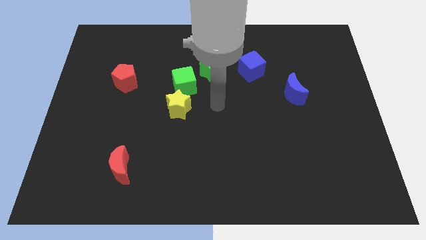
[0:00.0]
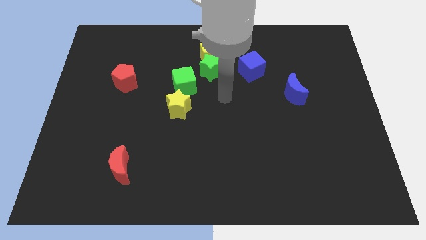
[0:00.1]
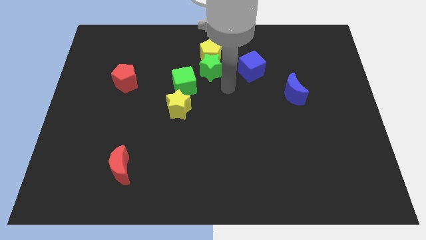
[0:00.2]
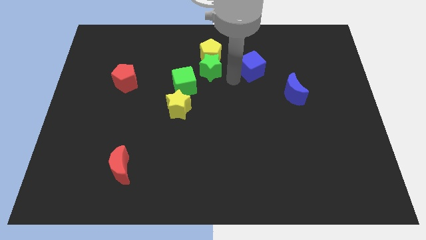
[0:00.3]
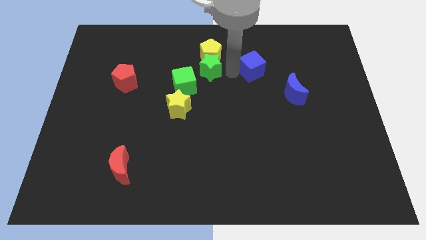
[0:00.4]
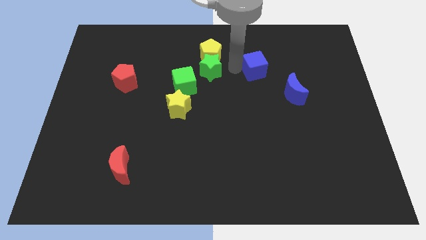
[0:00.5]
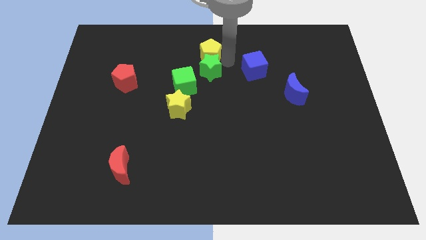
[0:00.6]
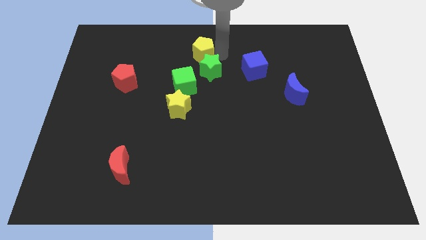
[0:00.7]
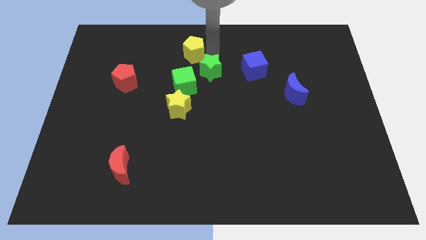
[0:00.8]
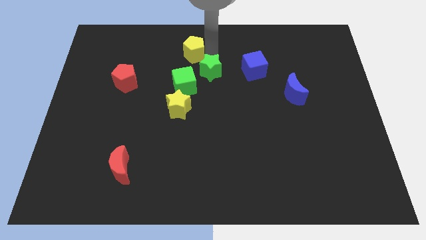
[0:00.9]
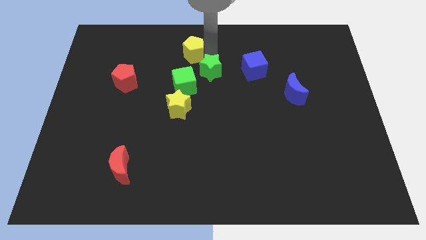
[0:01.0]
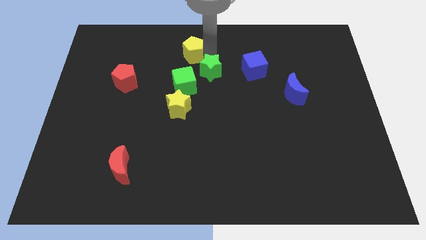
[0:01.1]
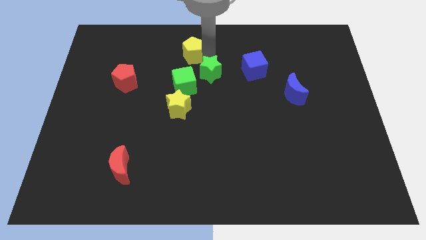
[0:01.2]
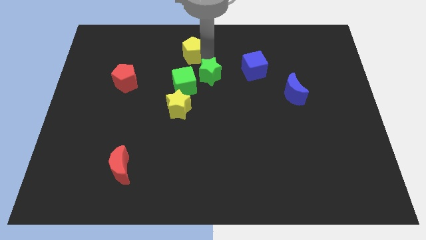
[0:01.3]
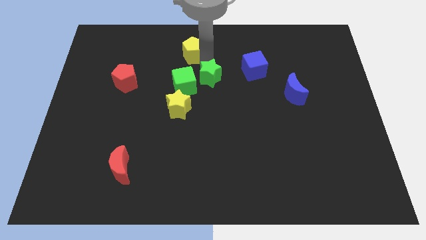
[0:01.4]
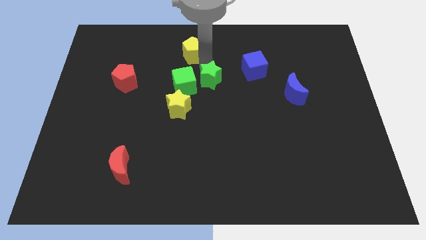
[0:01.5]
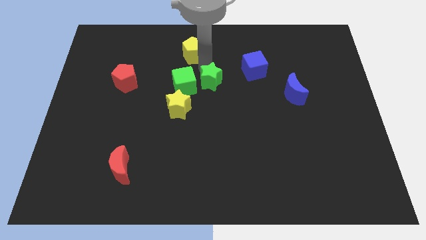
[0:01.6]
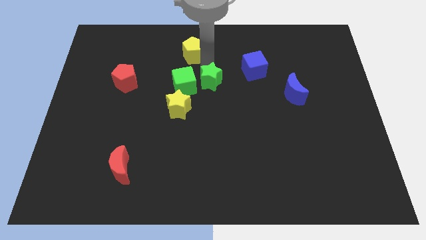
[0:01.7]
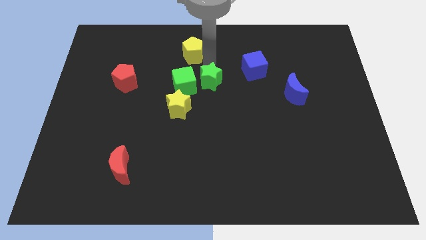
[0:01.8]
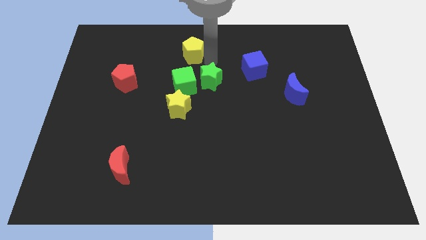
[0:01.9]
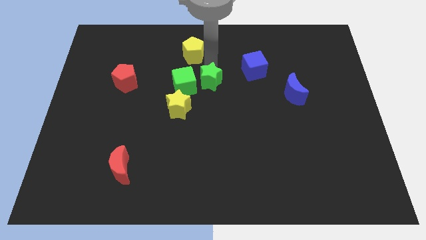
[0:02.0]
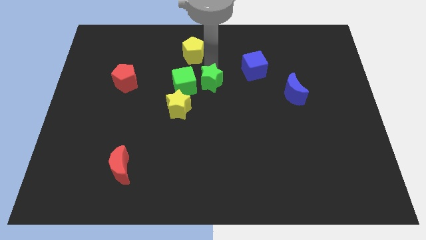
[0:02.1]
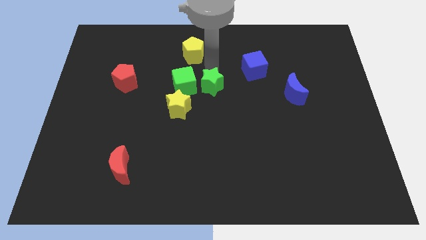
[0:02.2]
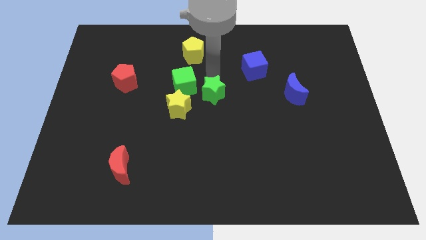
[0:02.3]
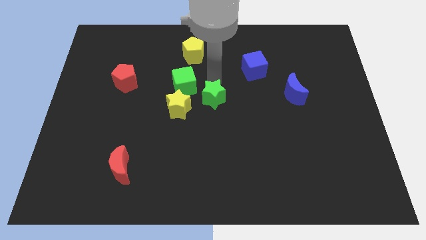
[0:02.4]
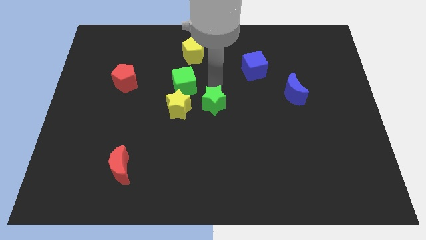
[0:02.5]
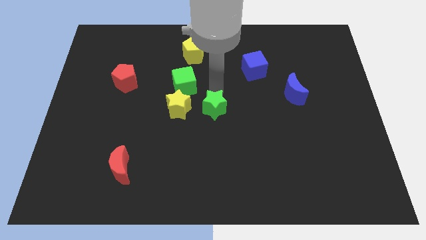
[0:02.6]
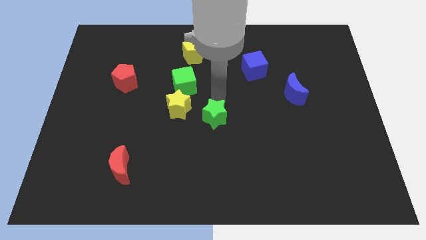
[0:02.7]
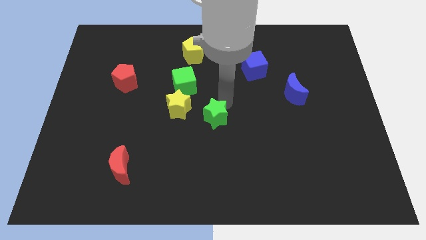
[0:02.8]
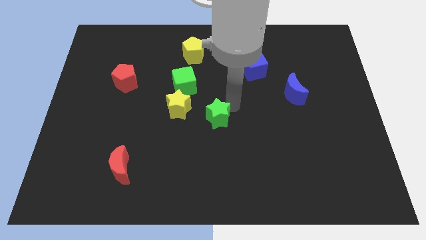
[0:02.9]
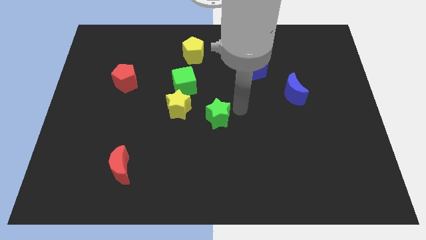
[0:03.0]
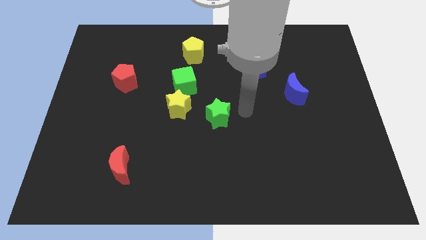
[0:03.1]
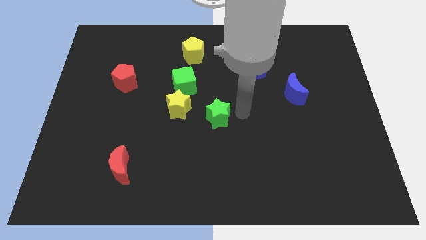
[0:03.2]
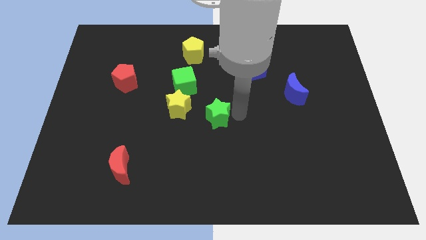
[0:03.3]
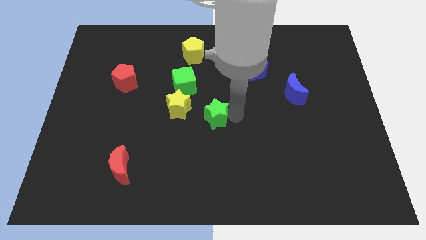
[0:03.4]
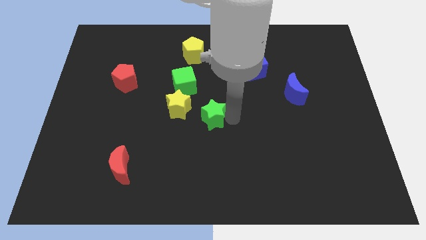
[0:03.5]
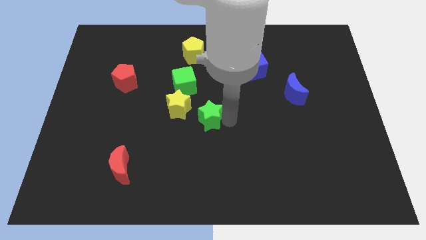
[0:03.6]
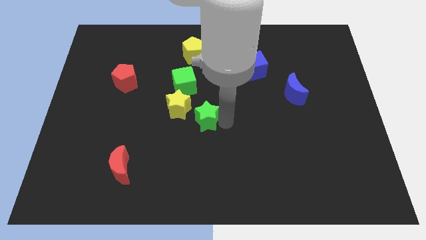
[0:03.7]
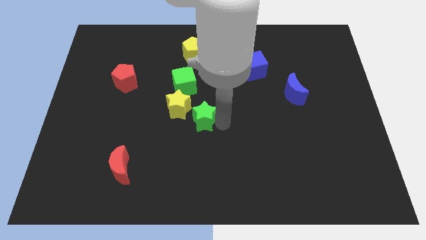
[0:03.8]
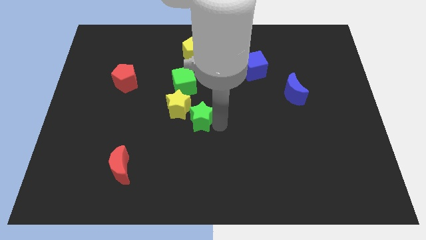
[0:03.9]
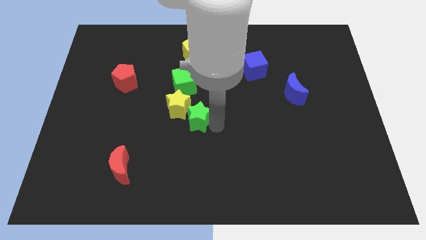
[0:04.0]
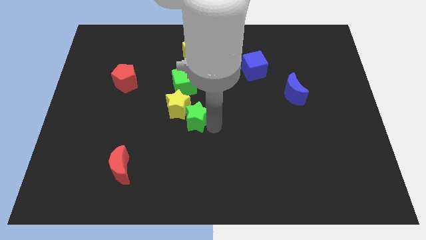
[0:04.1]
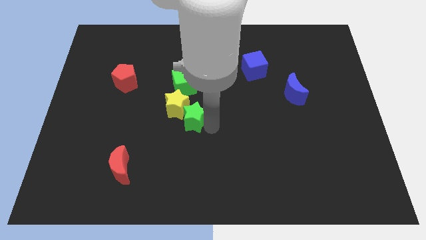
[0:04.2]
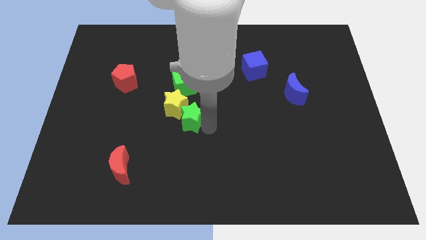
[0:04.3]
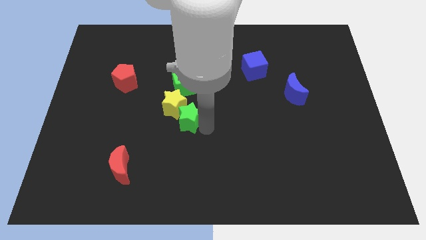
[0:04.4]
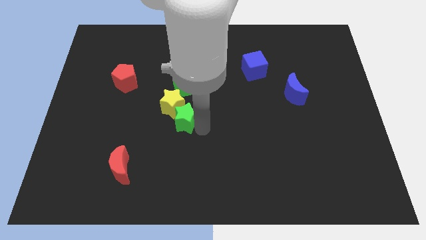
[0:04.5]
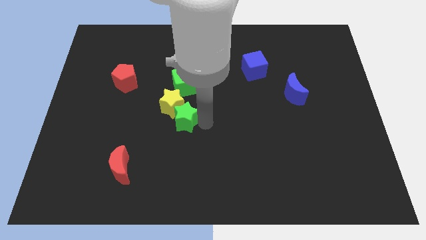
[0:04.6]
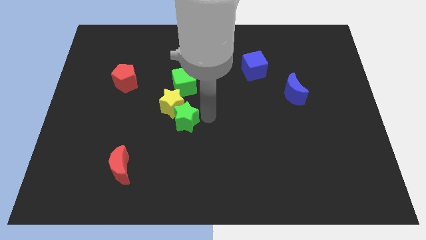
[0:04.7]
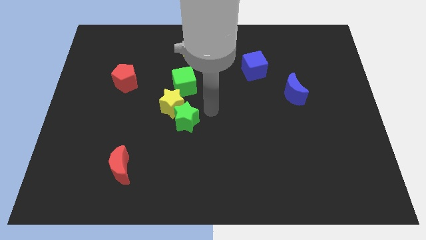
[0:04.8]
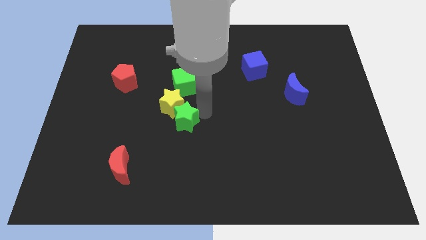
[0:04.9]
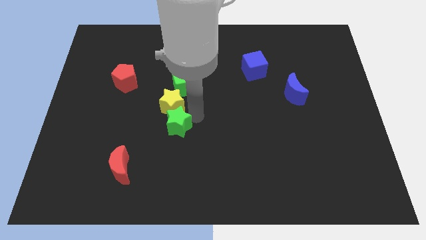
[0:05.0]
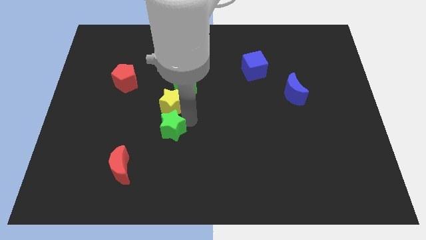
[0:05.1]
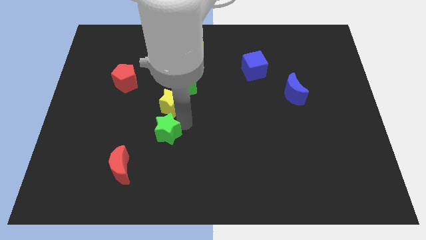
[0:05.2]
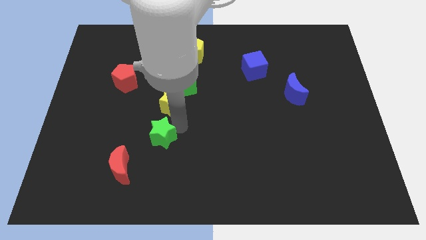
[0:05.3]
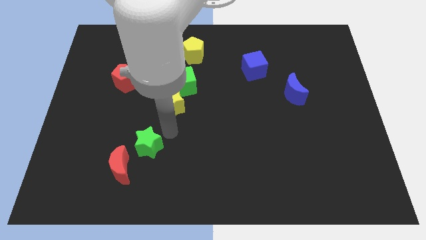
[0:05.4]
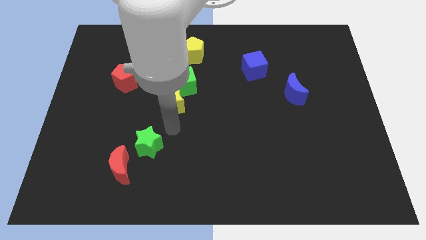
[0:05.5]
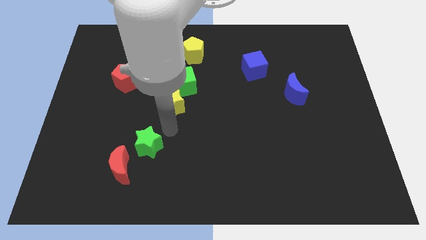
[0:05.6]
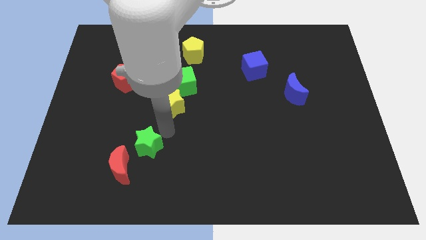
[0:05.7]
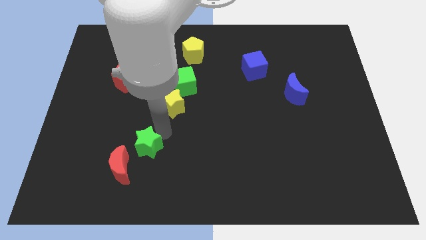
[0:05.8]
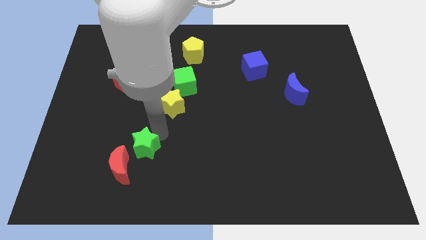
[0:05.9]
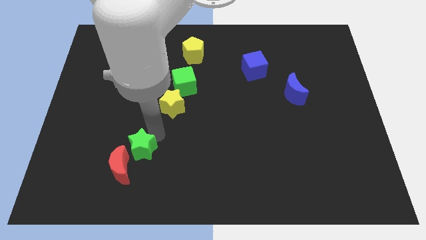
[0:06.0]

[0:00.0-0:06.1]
move the green star towards the red moon

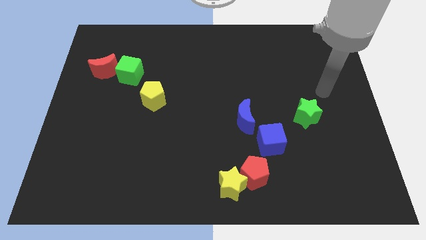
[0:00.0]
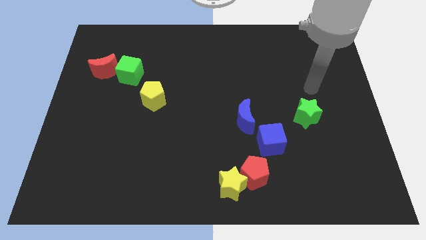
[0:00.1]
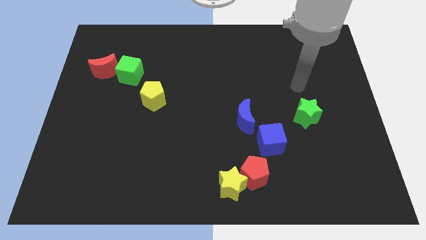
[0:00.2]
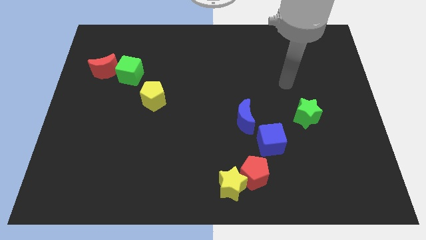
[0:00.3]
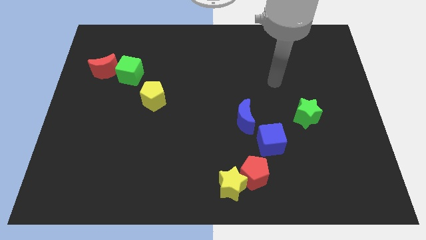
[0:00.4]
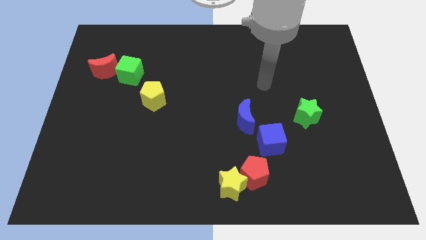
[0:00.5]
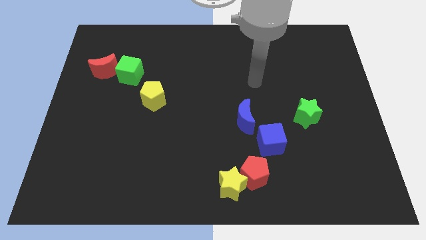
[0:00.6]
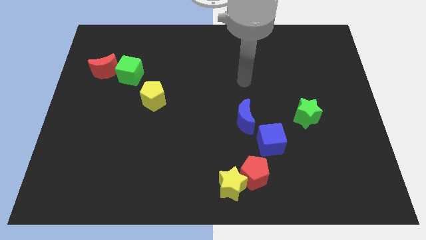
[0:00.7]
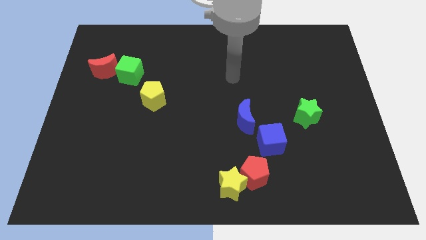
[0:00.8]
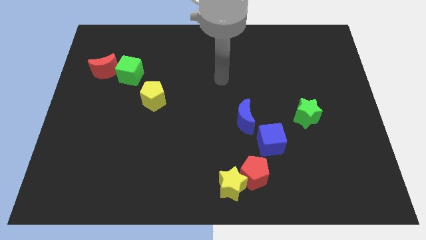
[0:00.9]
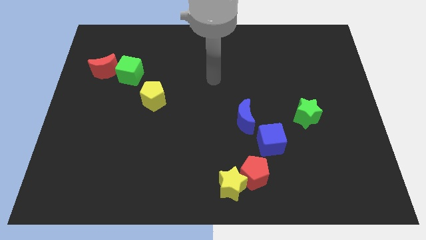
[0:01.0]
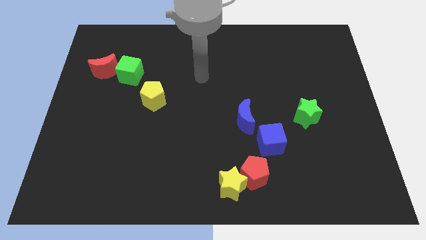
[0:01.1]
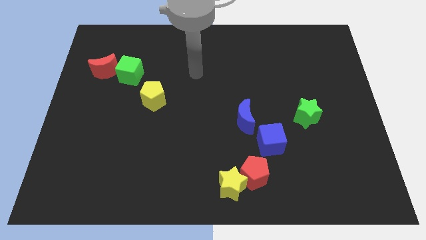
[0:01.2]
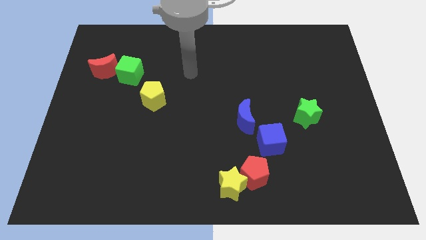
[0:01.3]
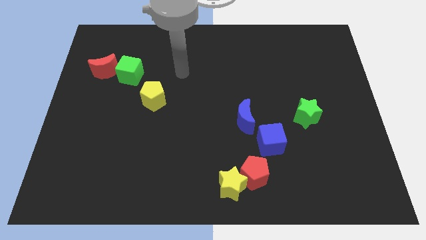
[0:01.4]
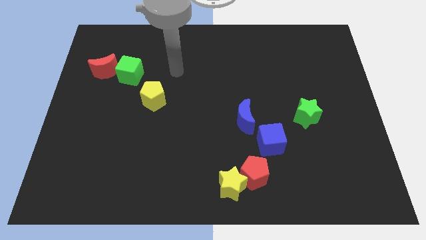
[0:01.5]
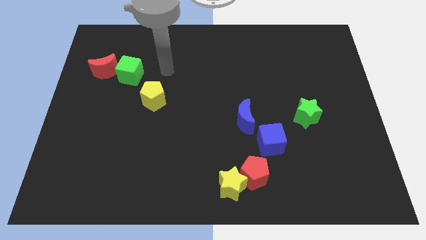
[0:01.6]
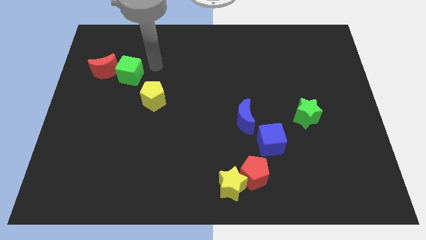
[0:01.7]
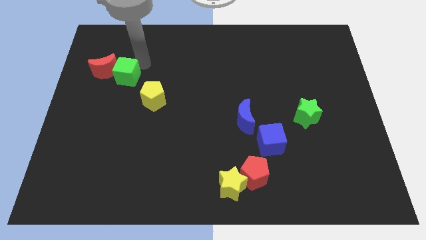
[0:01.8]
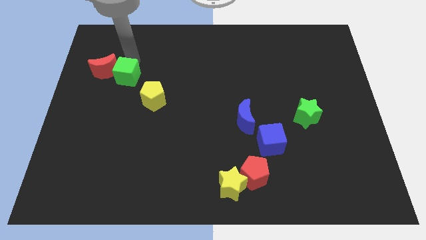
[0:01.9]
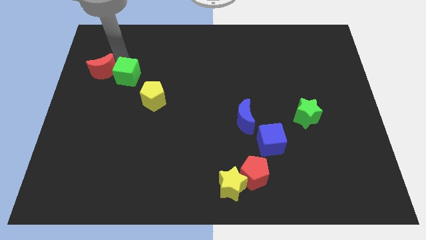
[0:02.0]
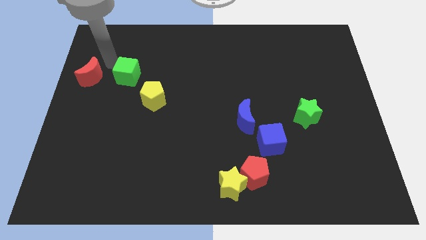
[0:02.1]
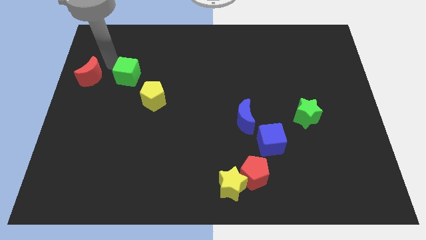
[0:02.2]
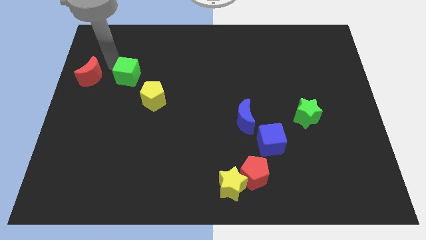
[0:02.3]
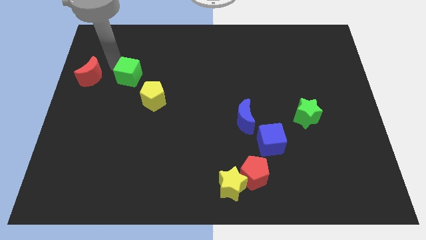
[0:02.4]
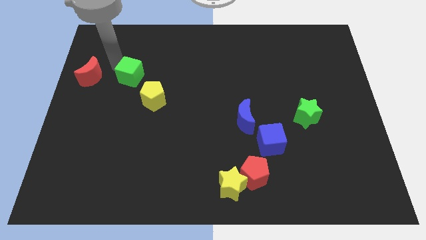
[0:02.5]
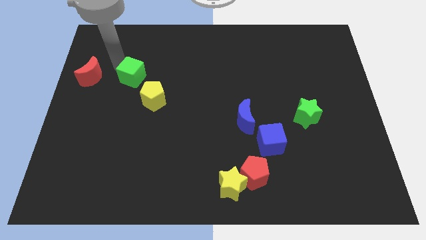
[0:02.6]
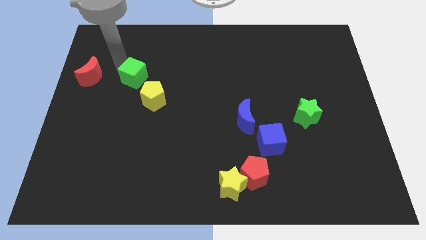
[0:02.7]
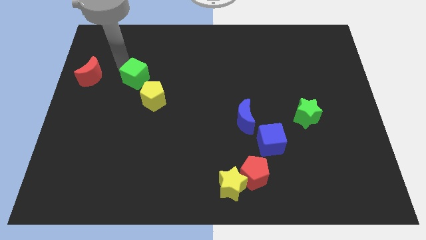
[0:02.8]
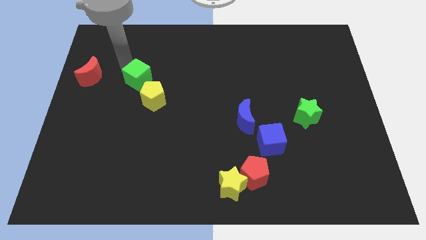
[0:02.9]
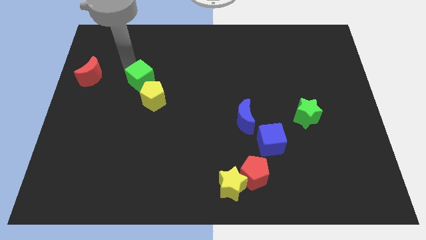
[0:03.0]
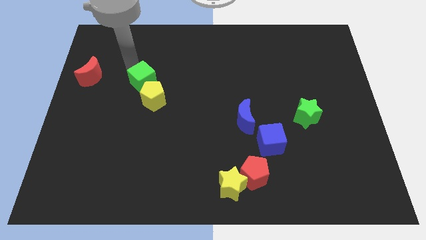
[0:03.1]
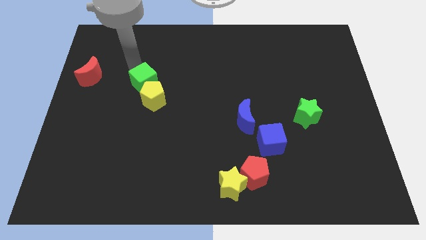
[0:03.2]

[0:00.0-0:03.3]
put the green cube towards the yellow pentagon
